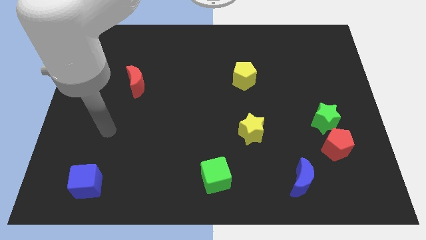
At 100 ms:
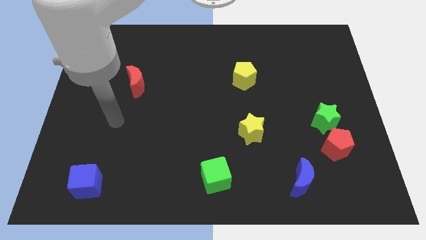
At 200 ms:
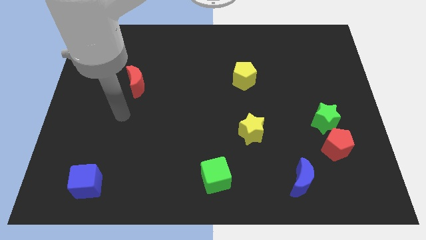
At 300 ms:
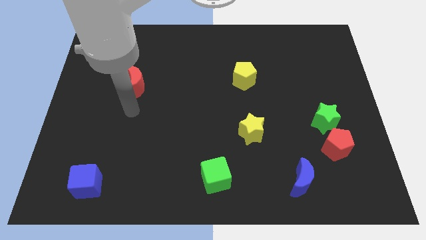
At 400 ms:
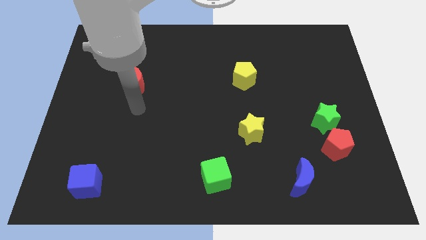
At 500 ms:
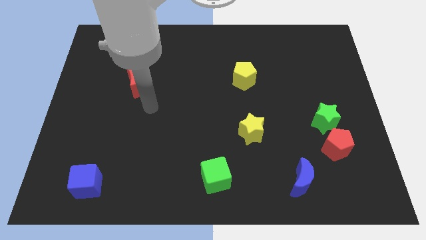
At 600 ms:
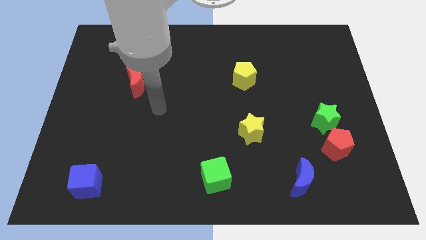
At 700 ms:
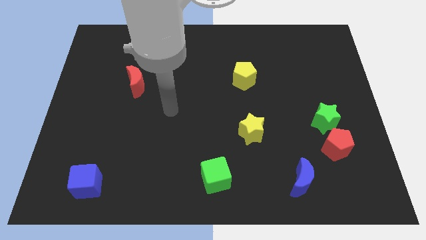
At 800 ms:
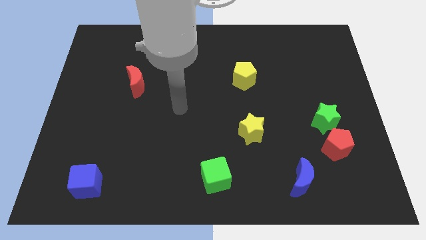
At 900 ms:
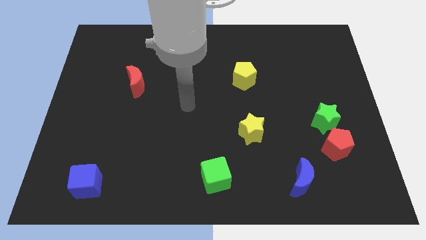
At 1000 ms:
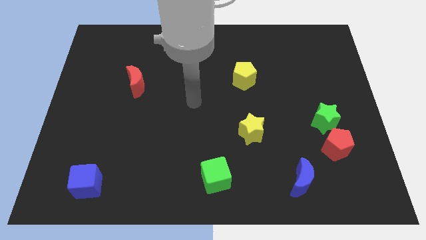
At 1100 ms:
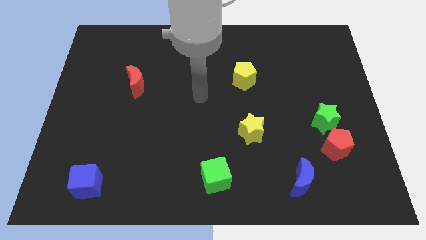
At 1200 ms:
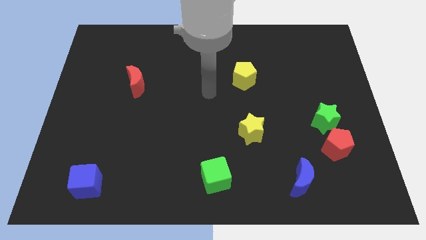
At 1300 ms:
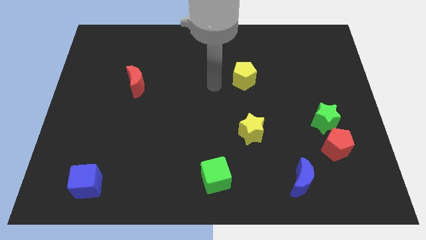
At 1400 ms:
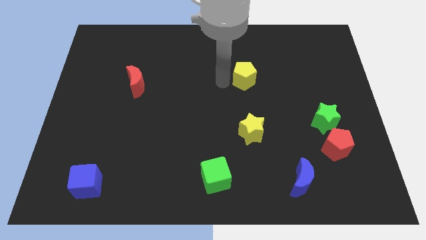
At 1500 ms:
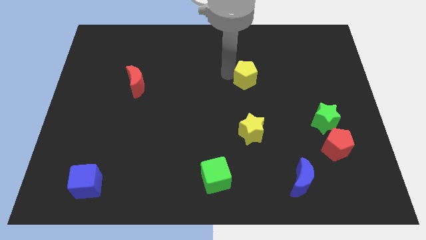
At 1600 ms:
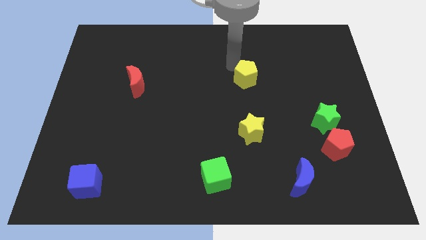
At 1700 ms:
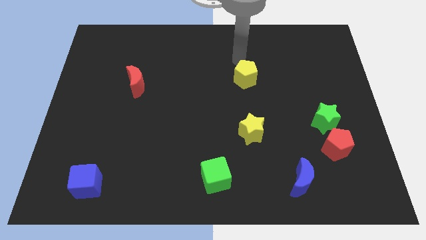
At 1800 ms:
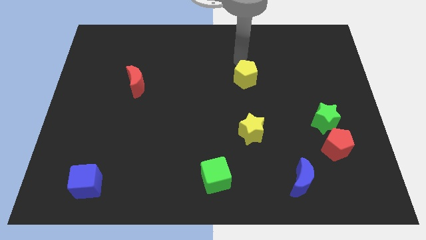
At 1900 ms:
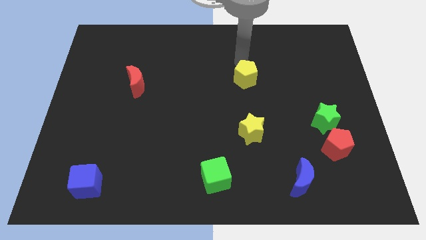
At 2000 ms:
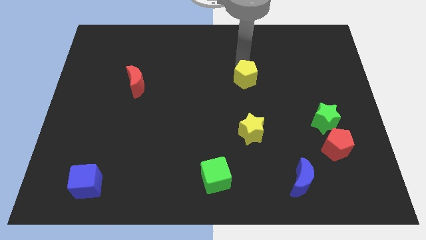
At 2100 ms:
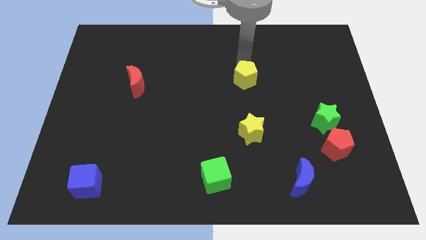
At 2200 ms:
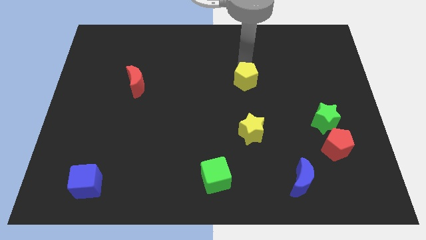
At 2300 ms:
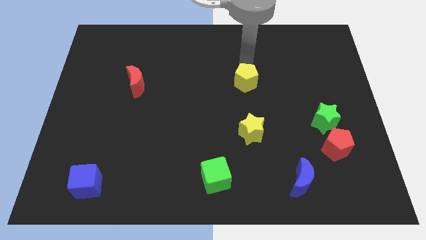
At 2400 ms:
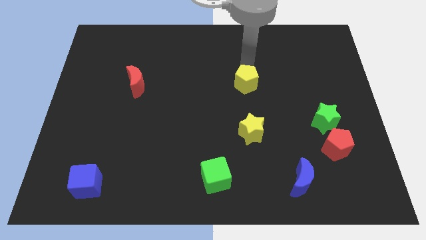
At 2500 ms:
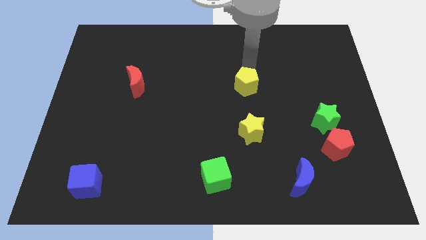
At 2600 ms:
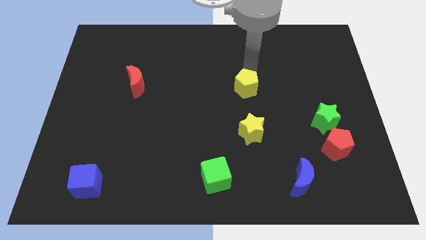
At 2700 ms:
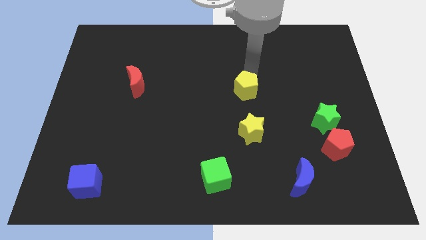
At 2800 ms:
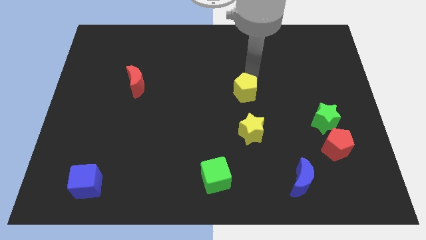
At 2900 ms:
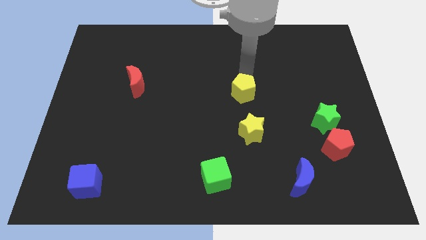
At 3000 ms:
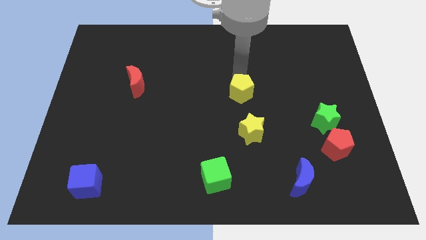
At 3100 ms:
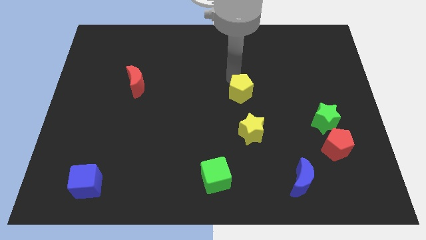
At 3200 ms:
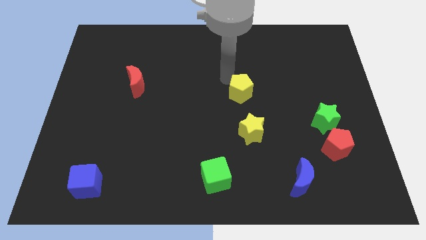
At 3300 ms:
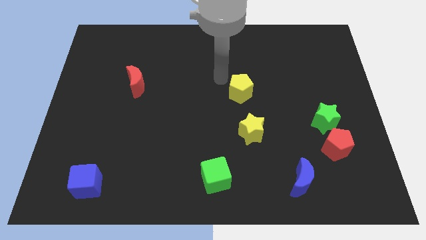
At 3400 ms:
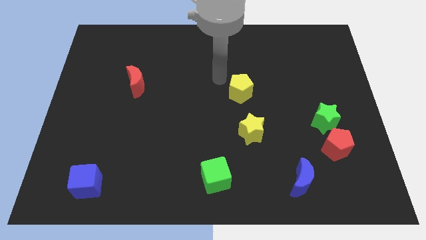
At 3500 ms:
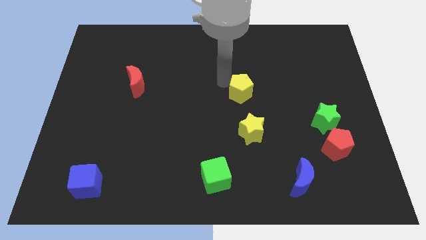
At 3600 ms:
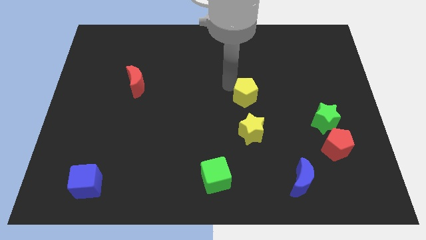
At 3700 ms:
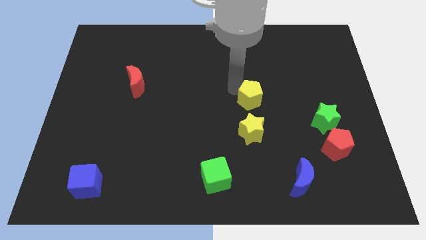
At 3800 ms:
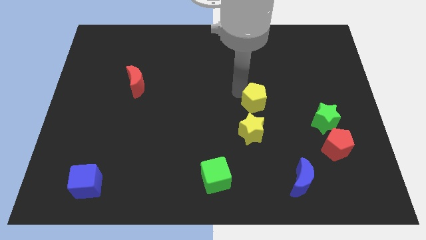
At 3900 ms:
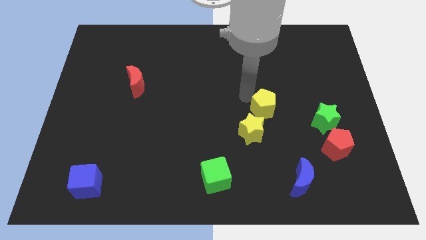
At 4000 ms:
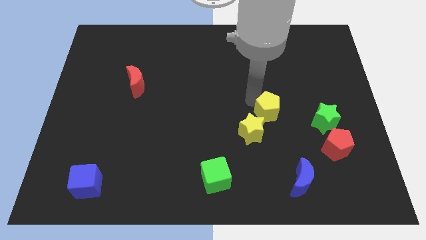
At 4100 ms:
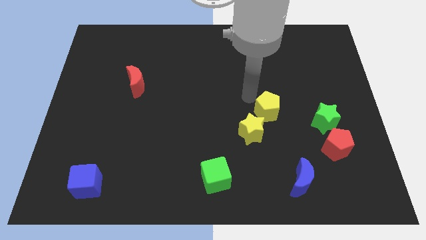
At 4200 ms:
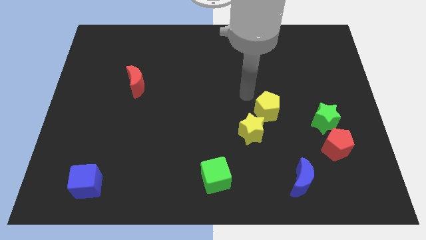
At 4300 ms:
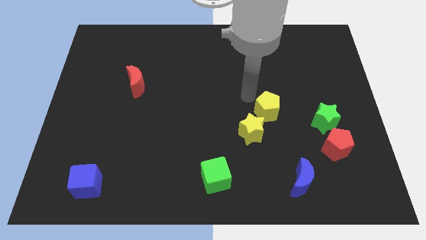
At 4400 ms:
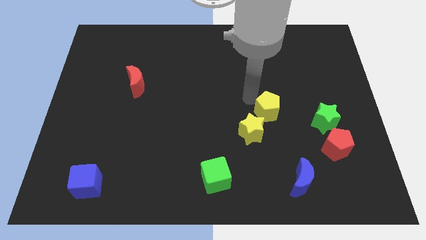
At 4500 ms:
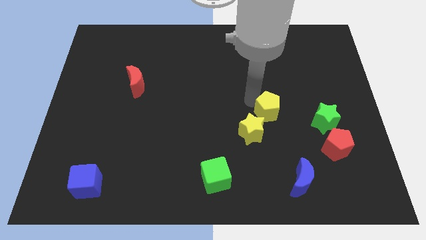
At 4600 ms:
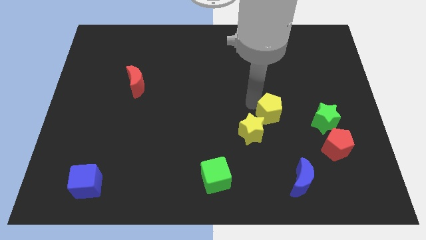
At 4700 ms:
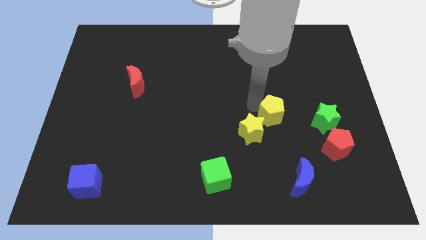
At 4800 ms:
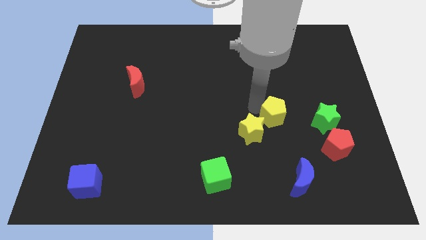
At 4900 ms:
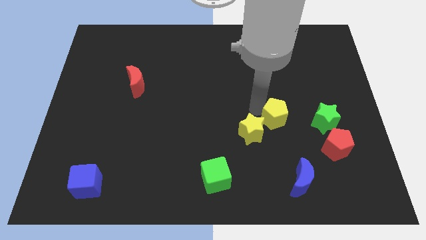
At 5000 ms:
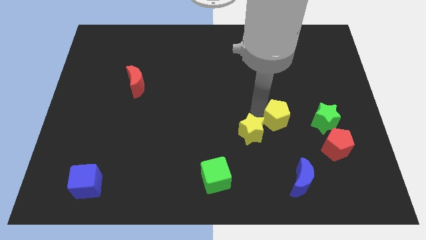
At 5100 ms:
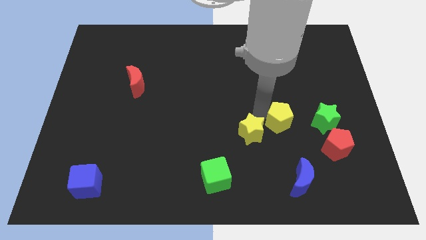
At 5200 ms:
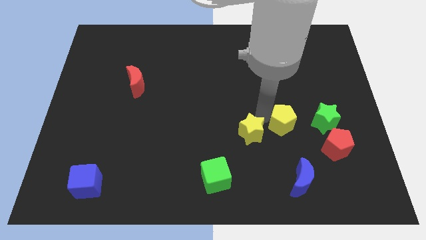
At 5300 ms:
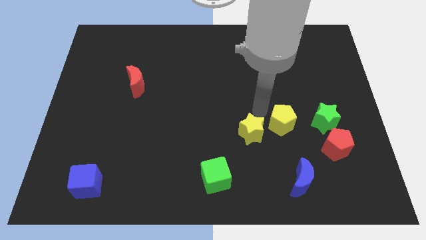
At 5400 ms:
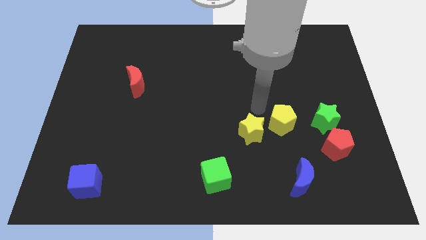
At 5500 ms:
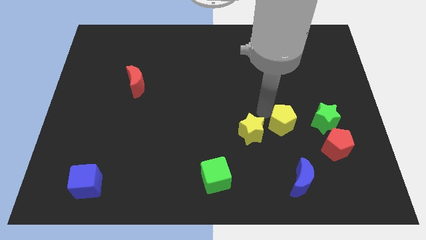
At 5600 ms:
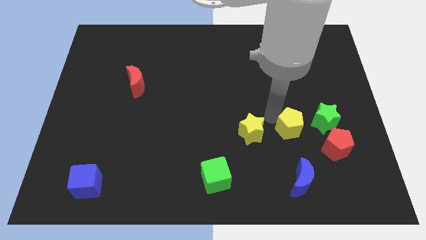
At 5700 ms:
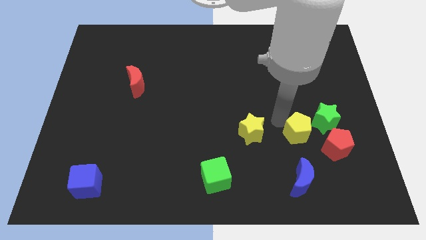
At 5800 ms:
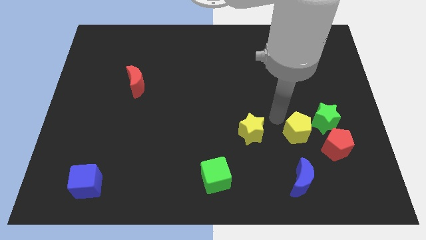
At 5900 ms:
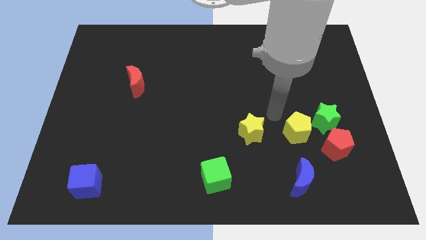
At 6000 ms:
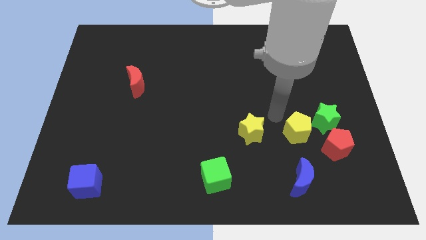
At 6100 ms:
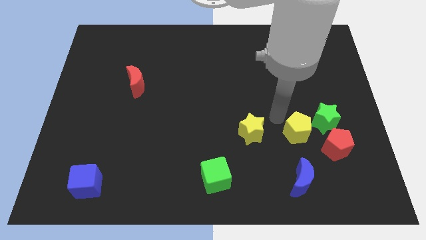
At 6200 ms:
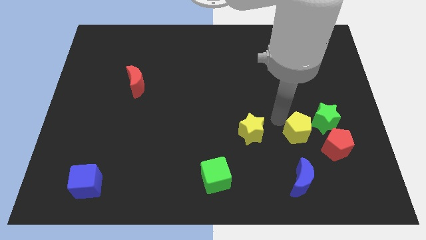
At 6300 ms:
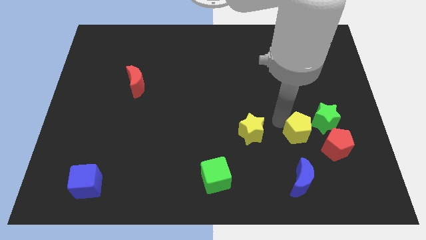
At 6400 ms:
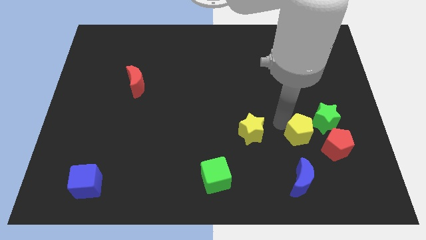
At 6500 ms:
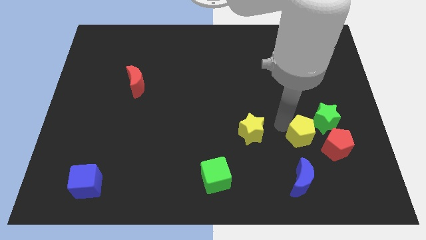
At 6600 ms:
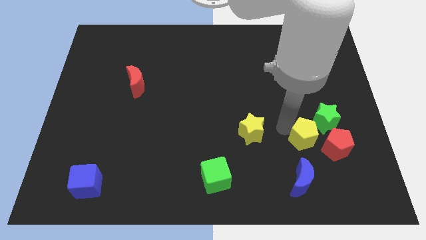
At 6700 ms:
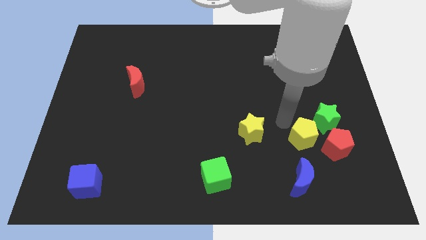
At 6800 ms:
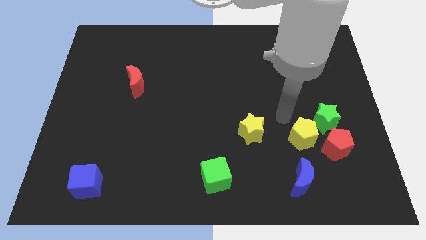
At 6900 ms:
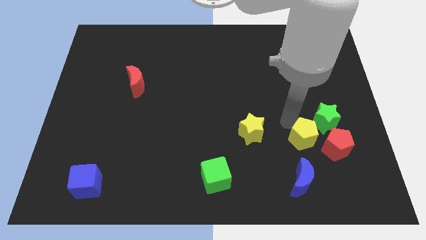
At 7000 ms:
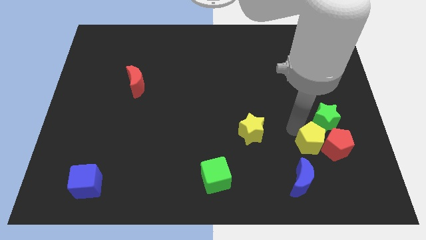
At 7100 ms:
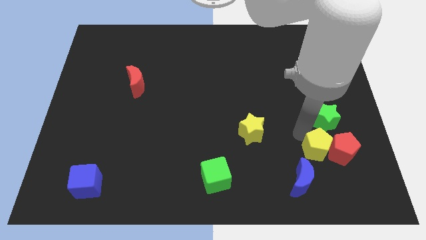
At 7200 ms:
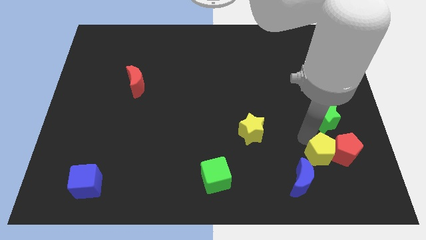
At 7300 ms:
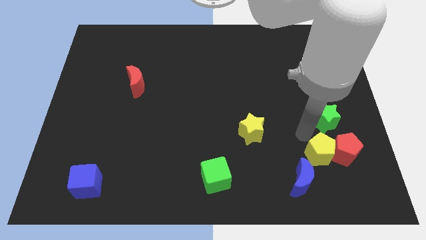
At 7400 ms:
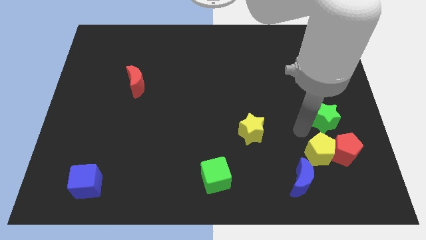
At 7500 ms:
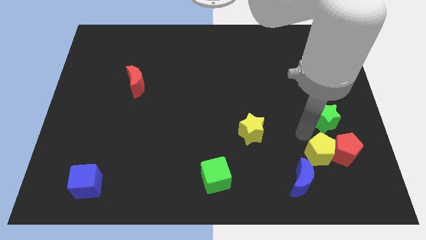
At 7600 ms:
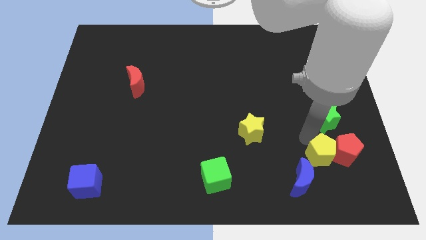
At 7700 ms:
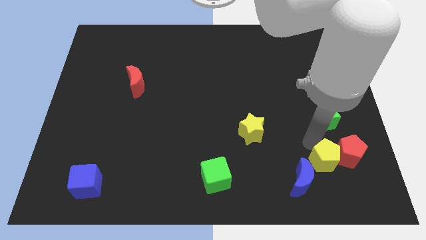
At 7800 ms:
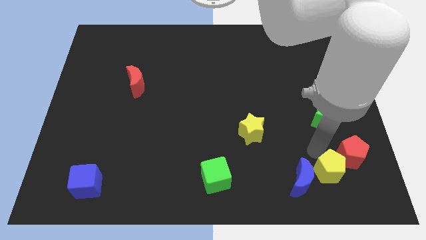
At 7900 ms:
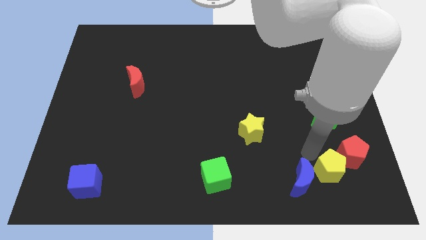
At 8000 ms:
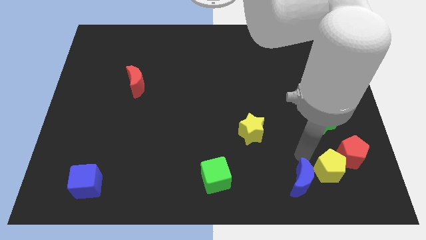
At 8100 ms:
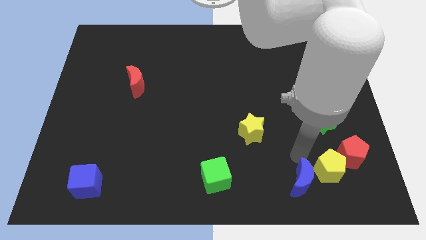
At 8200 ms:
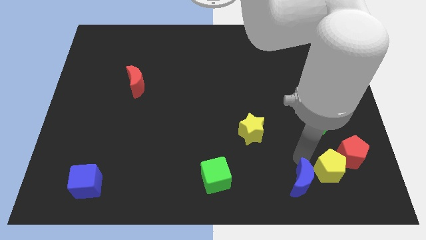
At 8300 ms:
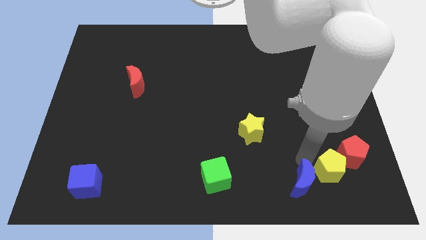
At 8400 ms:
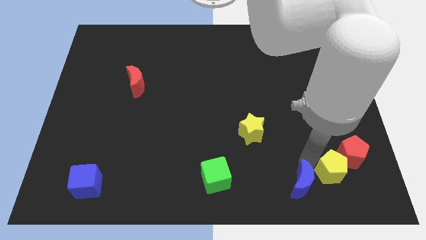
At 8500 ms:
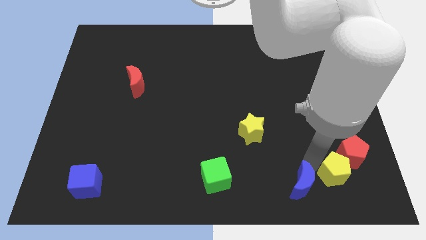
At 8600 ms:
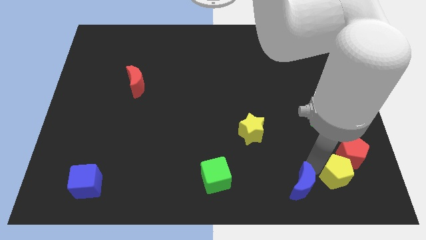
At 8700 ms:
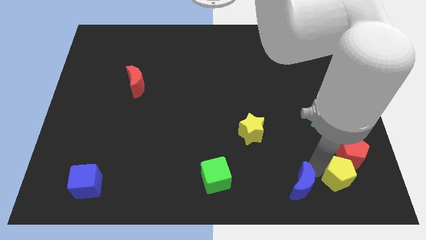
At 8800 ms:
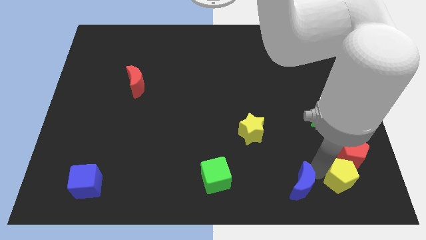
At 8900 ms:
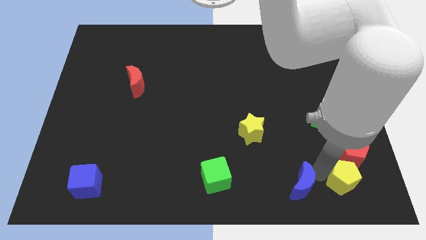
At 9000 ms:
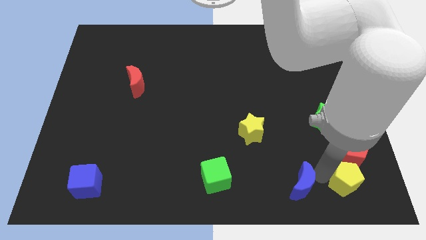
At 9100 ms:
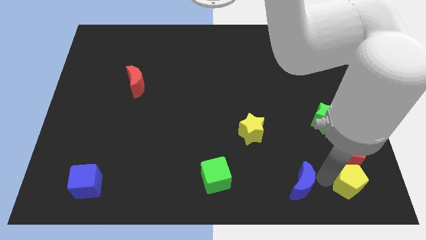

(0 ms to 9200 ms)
move the yellow pentagon to the bottom right corner
